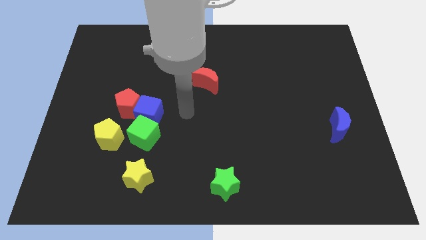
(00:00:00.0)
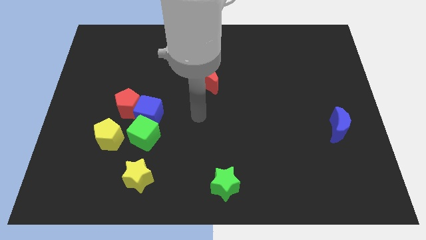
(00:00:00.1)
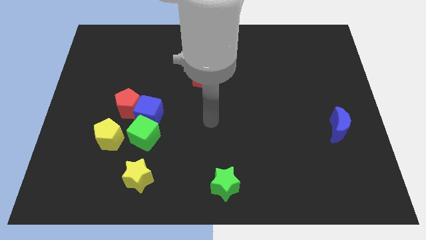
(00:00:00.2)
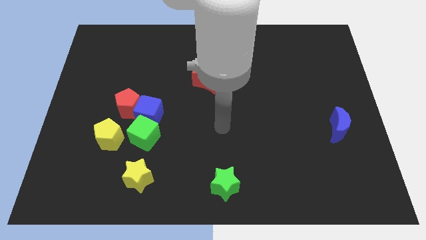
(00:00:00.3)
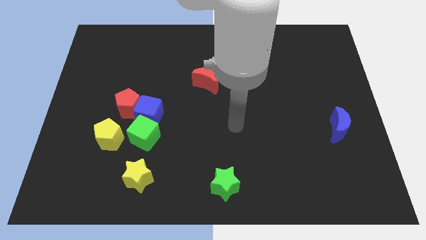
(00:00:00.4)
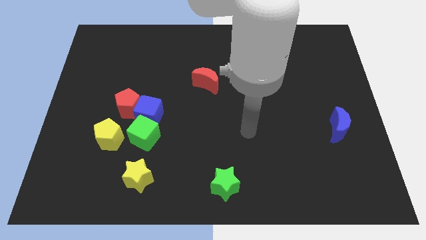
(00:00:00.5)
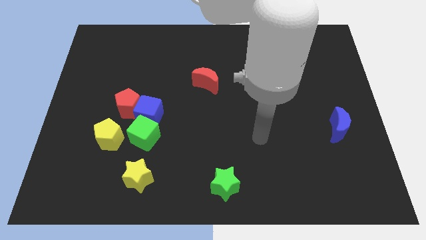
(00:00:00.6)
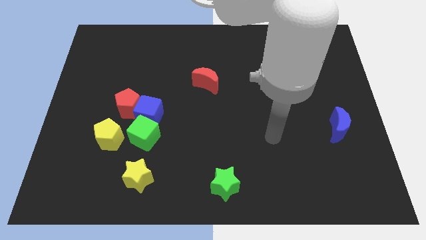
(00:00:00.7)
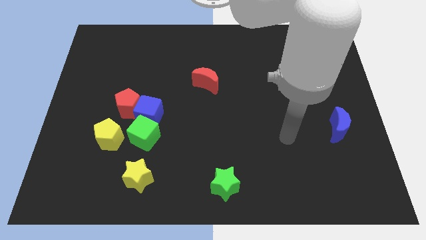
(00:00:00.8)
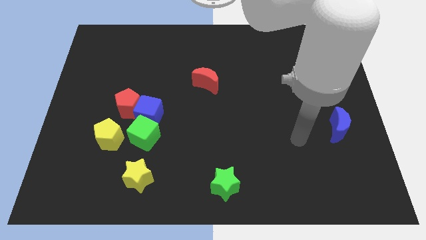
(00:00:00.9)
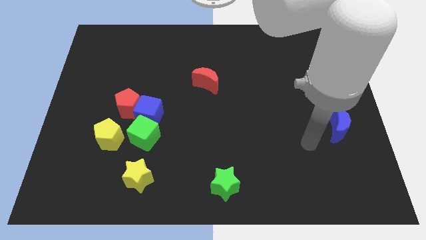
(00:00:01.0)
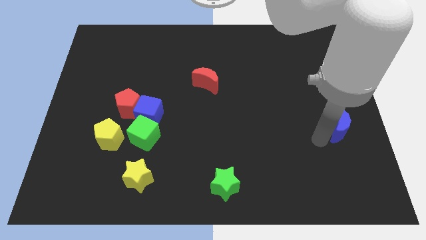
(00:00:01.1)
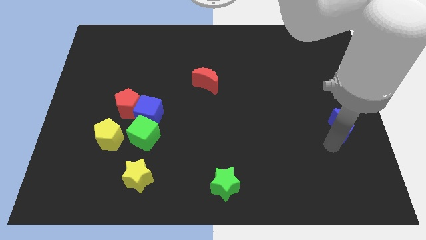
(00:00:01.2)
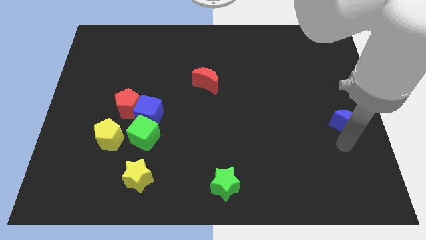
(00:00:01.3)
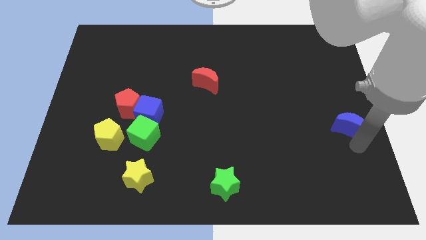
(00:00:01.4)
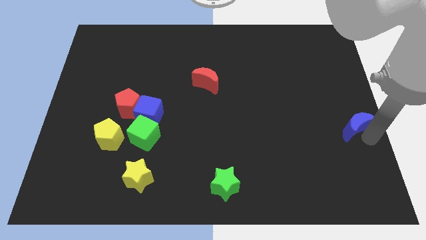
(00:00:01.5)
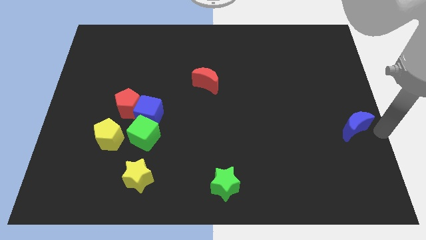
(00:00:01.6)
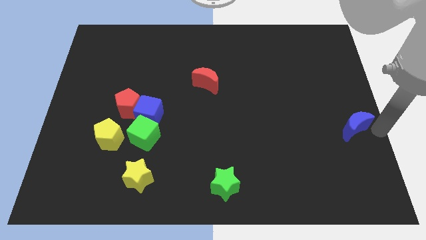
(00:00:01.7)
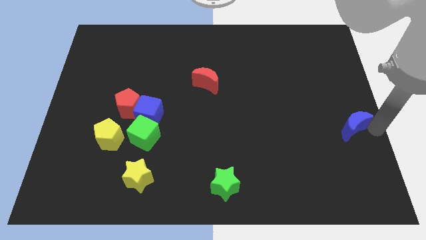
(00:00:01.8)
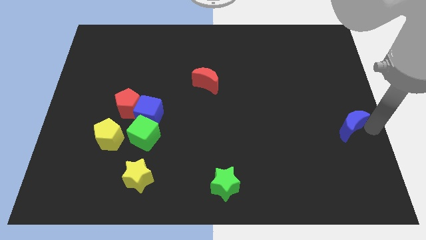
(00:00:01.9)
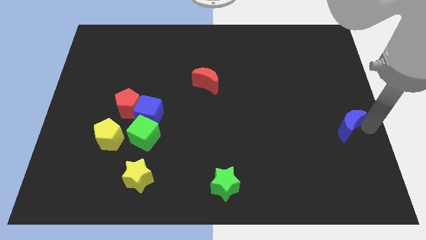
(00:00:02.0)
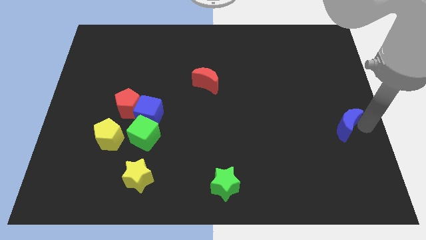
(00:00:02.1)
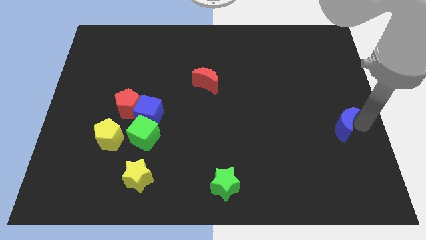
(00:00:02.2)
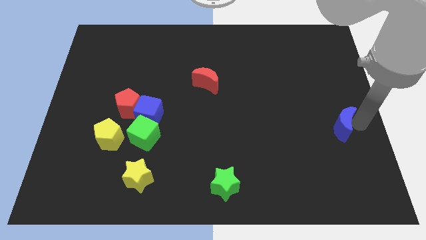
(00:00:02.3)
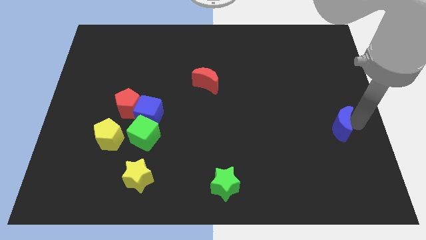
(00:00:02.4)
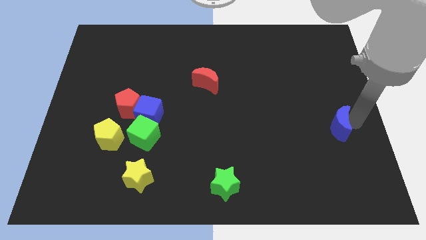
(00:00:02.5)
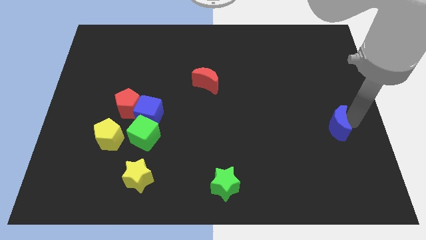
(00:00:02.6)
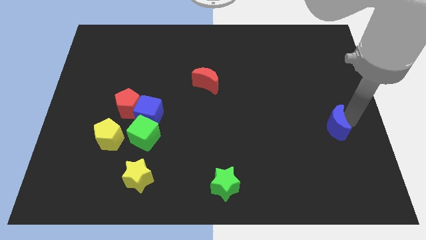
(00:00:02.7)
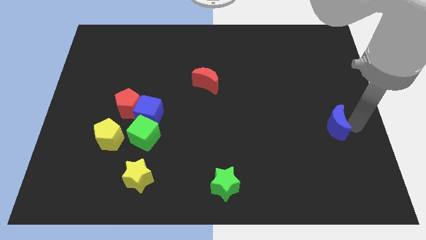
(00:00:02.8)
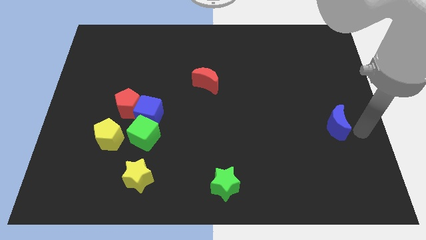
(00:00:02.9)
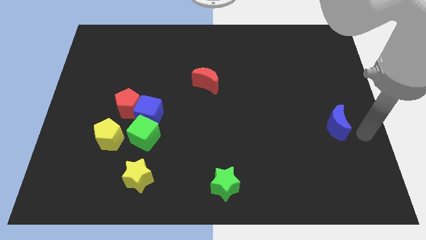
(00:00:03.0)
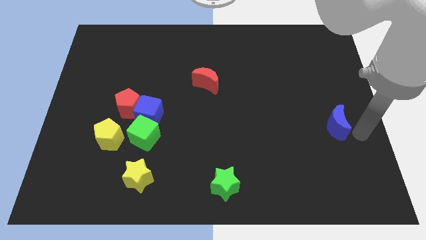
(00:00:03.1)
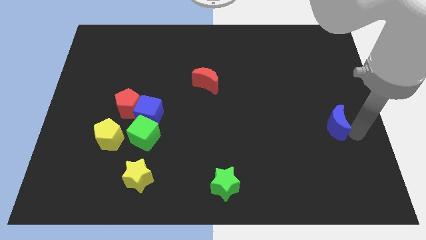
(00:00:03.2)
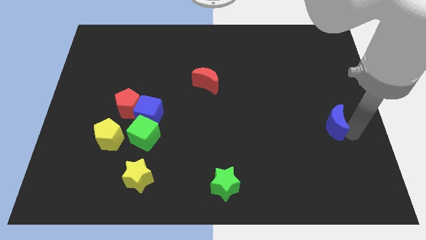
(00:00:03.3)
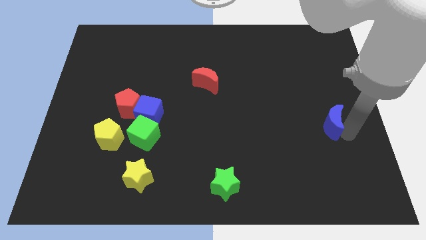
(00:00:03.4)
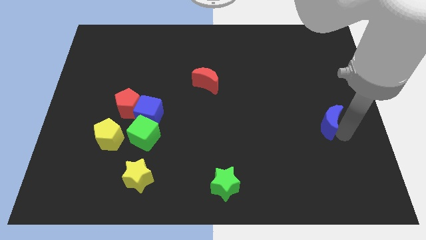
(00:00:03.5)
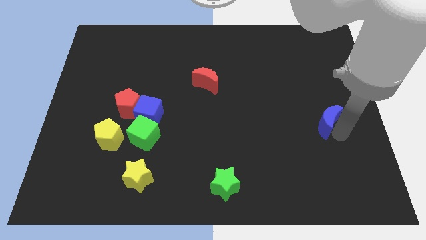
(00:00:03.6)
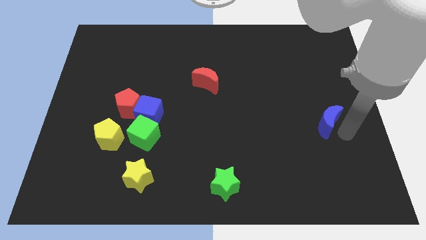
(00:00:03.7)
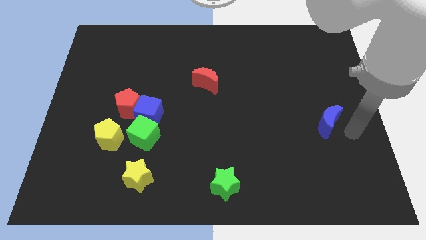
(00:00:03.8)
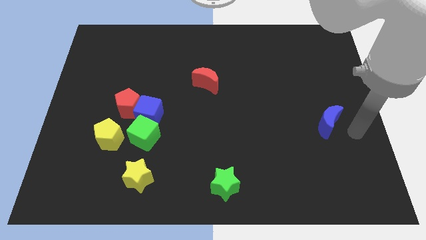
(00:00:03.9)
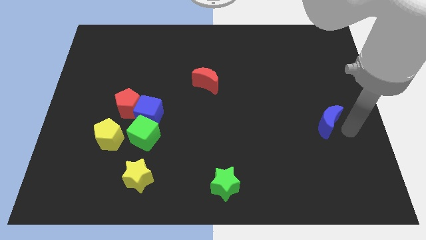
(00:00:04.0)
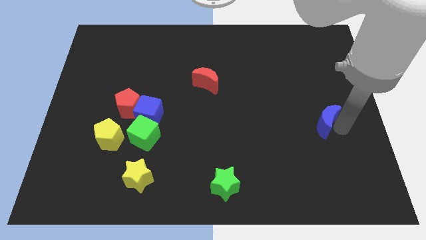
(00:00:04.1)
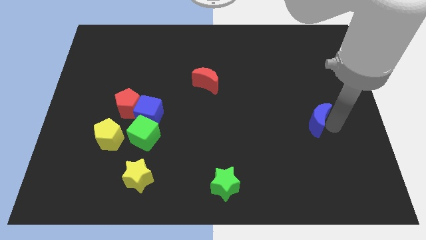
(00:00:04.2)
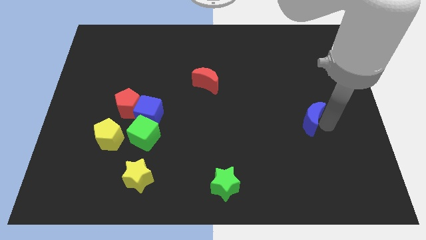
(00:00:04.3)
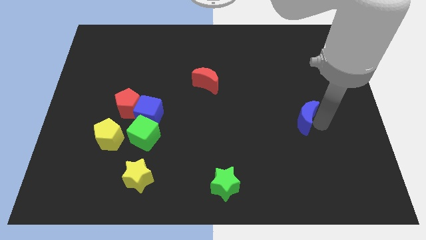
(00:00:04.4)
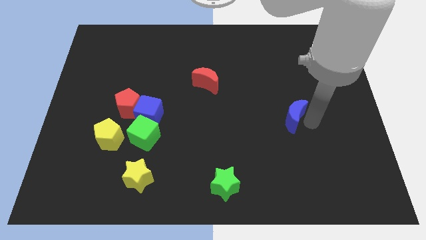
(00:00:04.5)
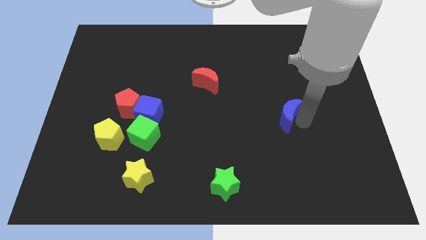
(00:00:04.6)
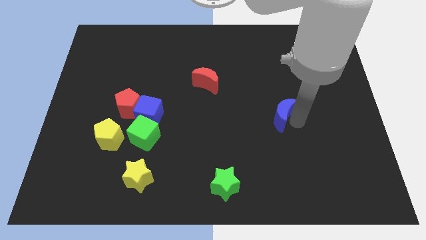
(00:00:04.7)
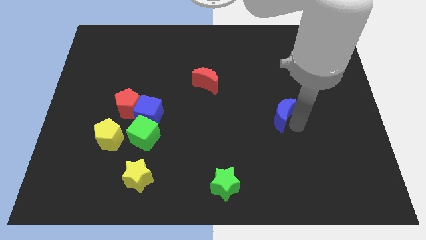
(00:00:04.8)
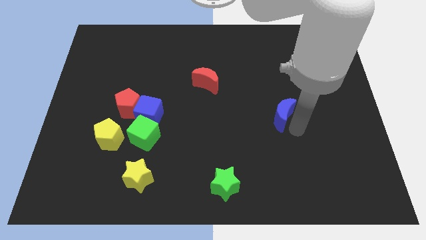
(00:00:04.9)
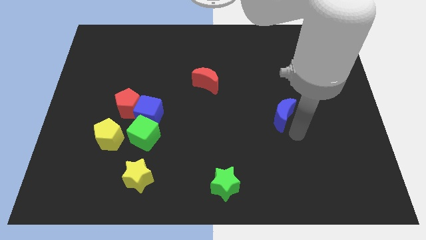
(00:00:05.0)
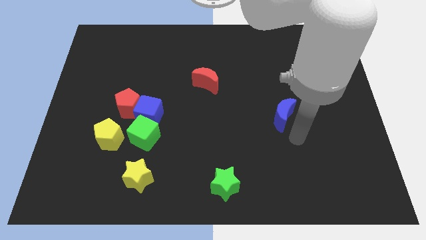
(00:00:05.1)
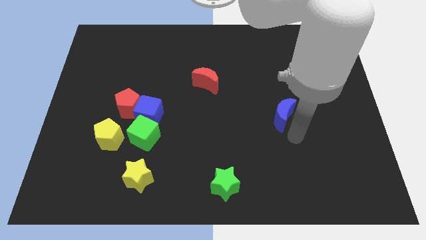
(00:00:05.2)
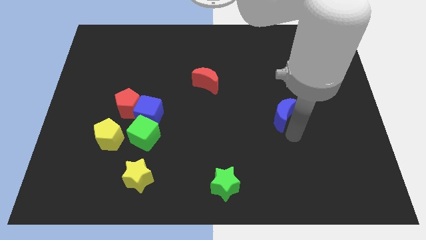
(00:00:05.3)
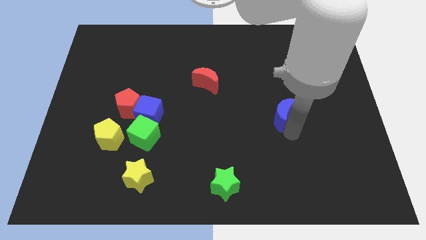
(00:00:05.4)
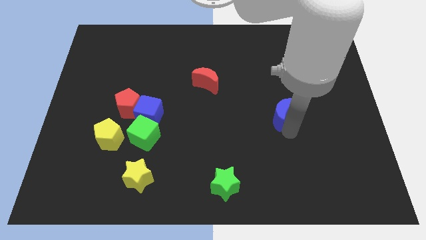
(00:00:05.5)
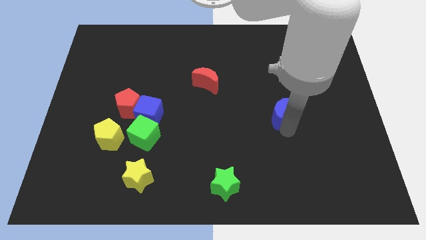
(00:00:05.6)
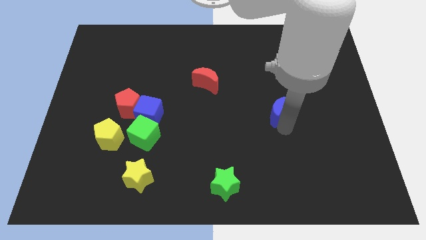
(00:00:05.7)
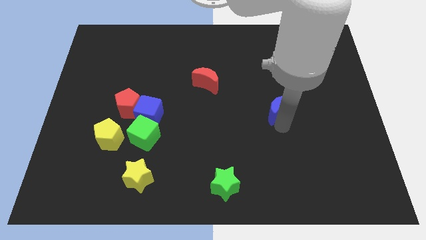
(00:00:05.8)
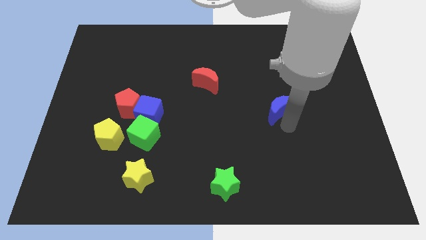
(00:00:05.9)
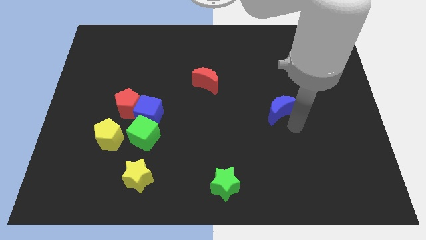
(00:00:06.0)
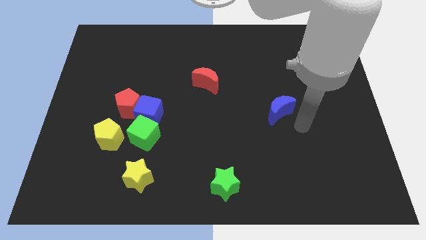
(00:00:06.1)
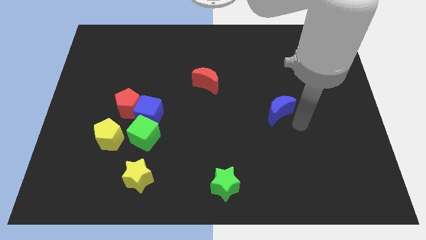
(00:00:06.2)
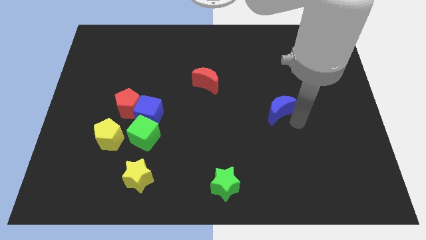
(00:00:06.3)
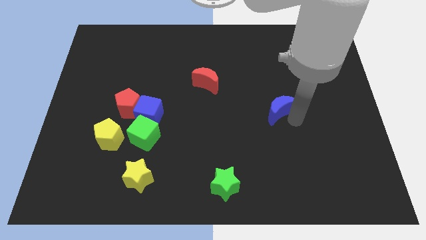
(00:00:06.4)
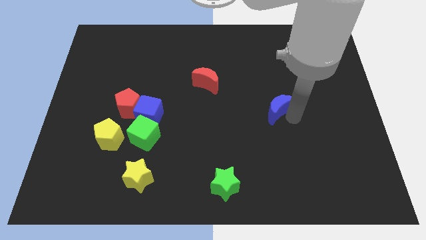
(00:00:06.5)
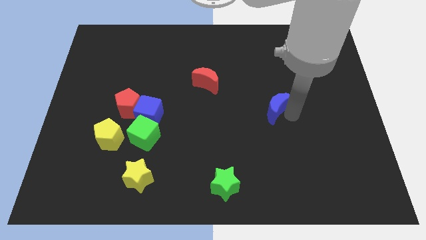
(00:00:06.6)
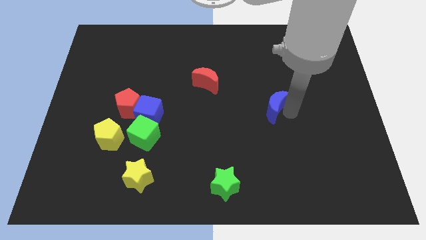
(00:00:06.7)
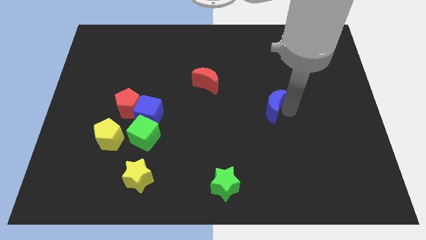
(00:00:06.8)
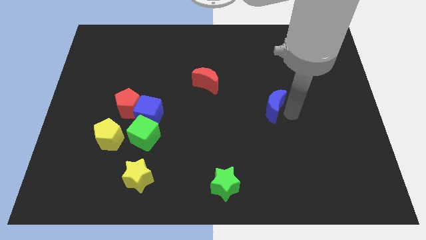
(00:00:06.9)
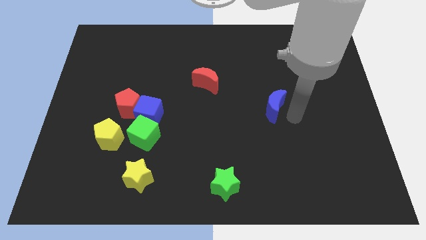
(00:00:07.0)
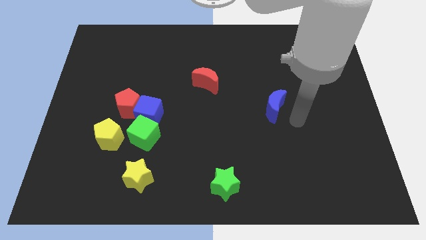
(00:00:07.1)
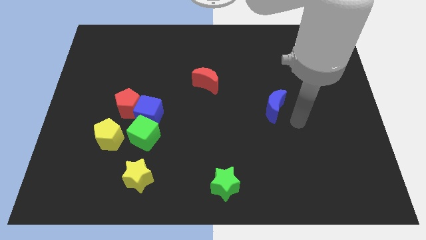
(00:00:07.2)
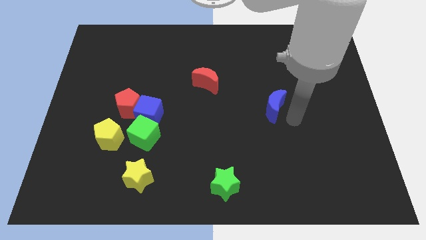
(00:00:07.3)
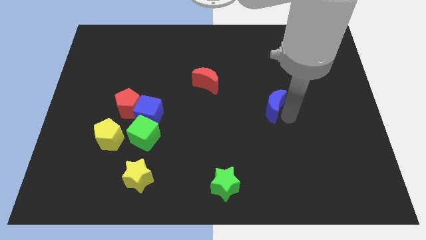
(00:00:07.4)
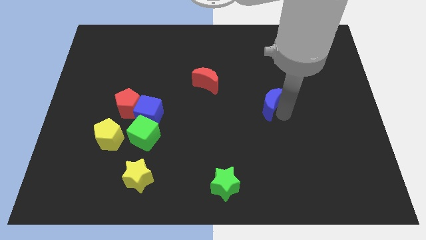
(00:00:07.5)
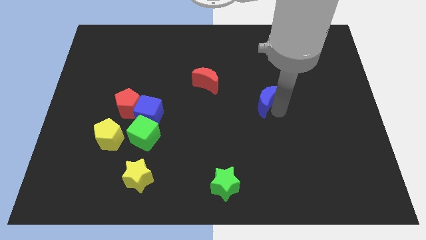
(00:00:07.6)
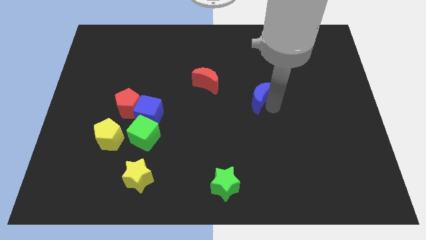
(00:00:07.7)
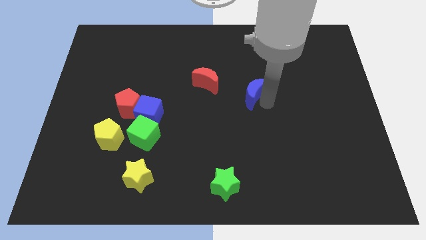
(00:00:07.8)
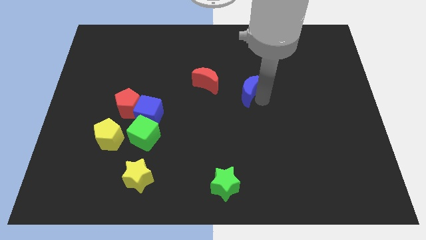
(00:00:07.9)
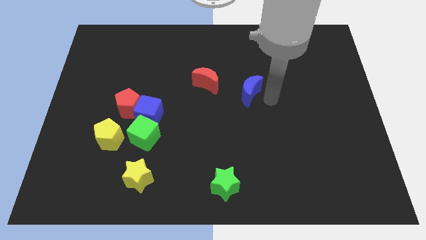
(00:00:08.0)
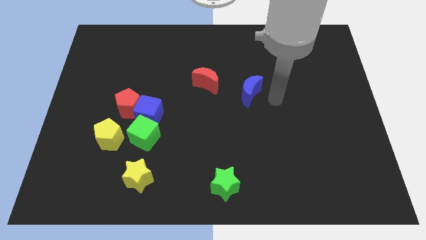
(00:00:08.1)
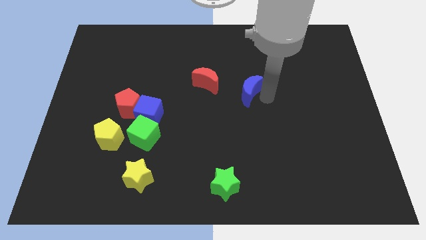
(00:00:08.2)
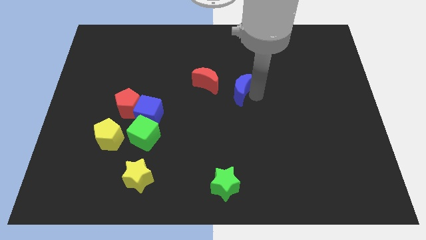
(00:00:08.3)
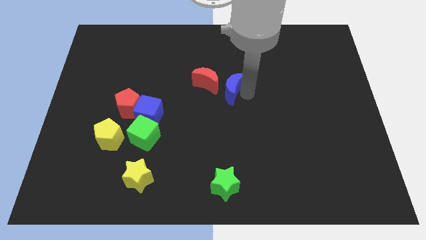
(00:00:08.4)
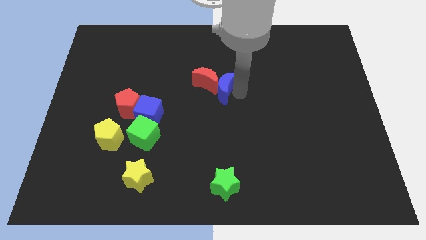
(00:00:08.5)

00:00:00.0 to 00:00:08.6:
move the blue moon to the red moon
